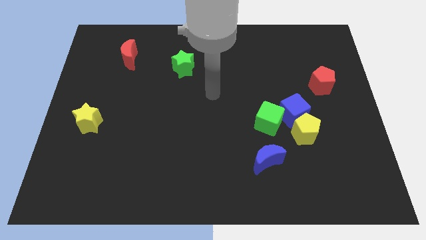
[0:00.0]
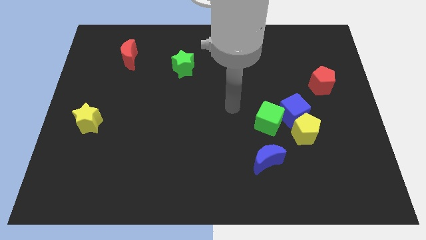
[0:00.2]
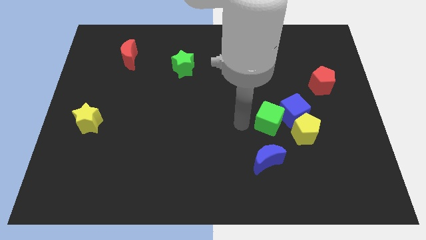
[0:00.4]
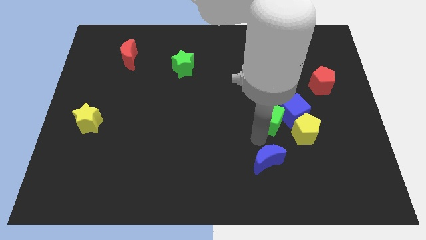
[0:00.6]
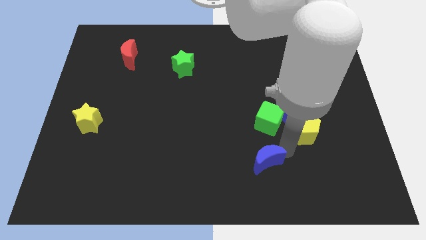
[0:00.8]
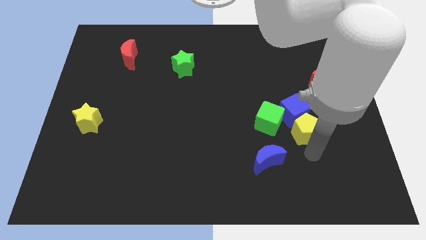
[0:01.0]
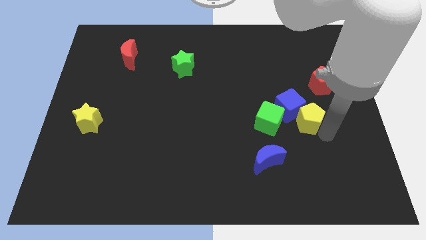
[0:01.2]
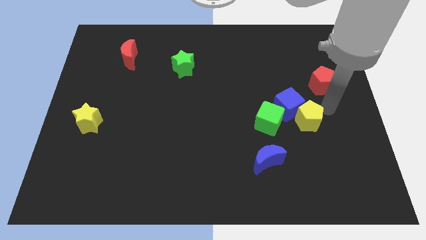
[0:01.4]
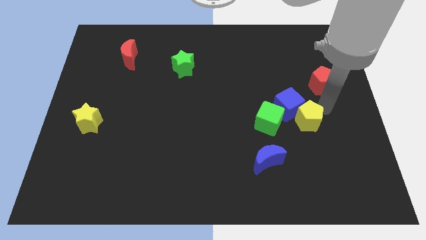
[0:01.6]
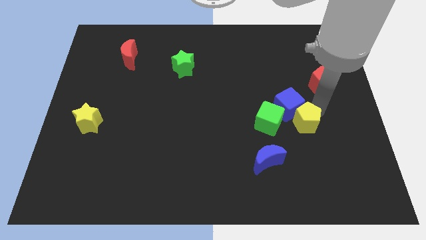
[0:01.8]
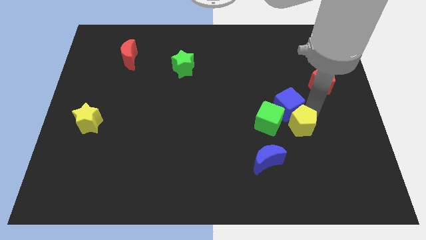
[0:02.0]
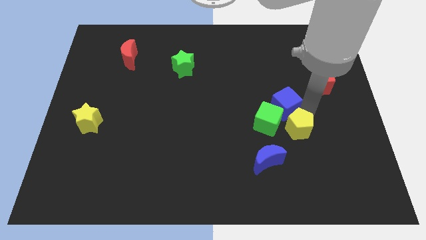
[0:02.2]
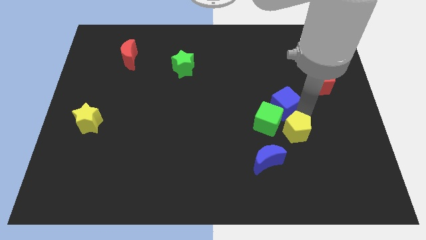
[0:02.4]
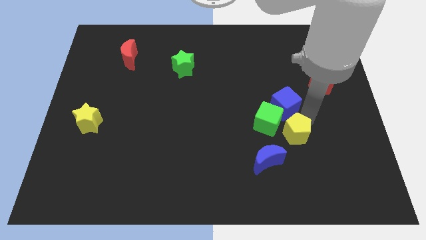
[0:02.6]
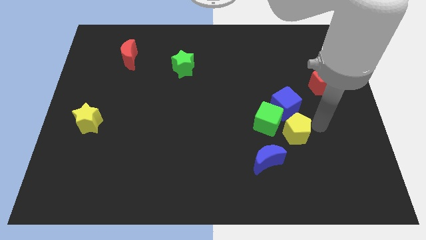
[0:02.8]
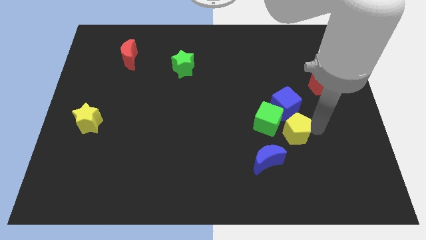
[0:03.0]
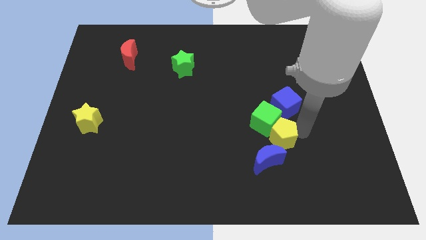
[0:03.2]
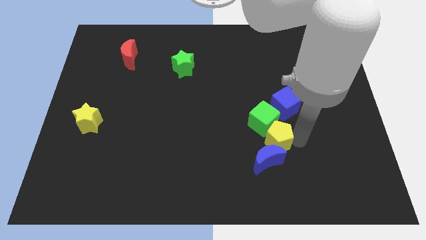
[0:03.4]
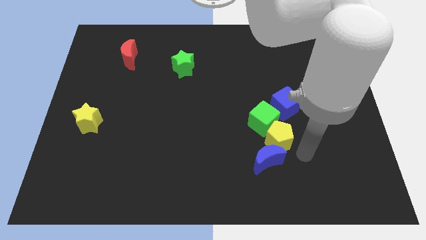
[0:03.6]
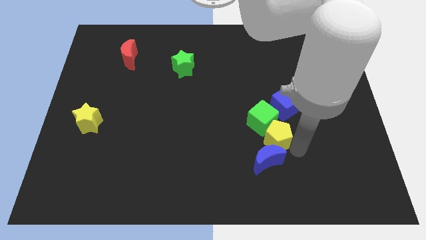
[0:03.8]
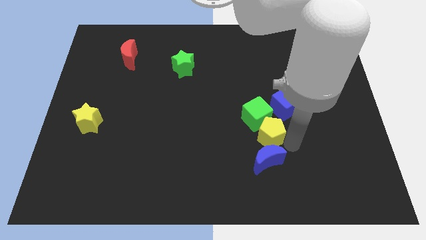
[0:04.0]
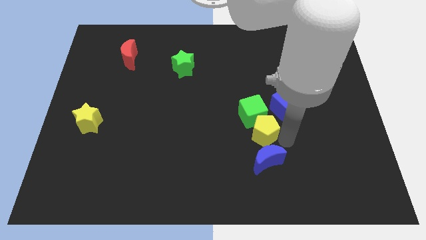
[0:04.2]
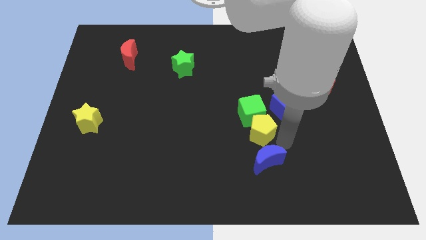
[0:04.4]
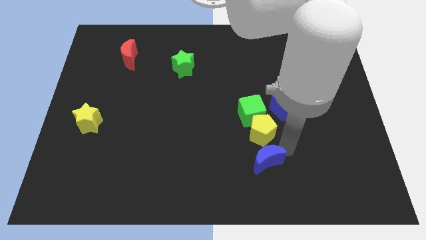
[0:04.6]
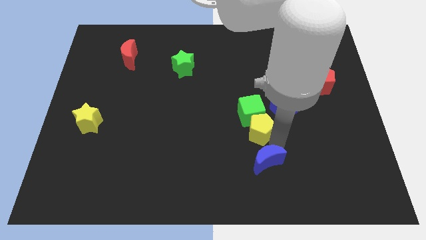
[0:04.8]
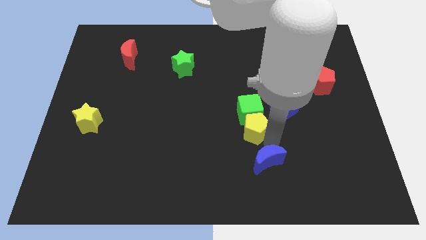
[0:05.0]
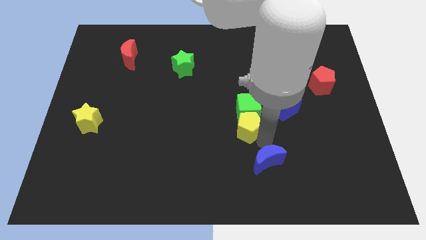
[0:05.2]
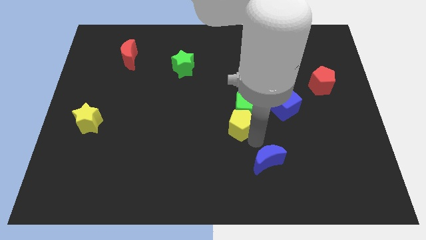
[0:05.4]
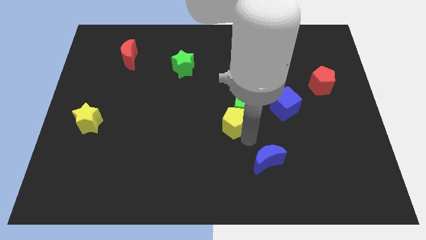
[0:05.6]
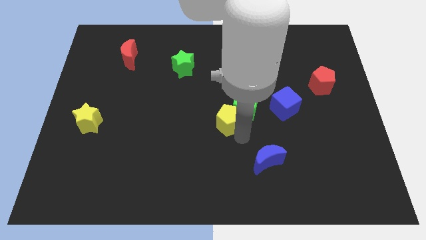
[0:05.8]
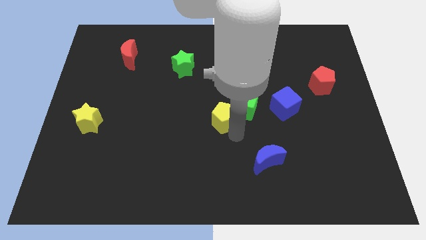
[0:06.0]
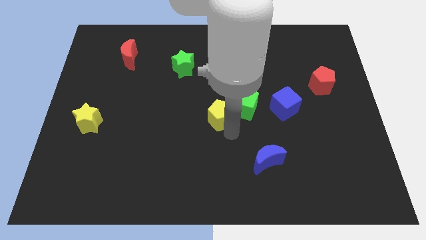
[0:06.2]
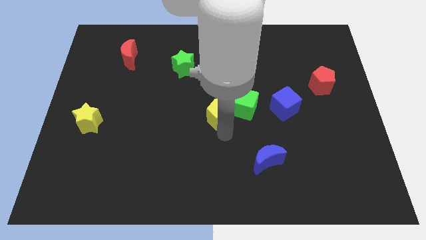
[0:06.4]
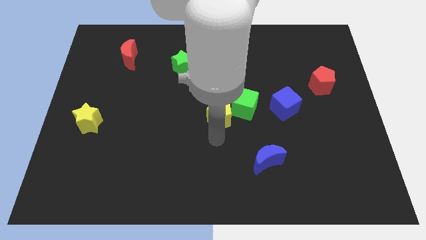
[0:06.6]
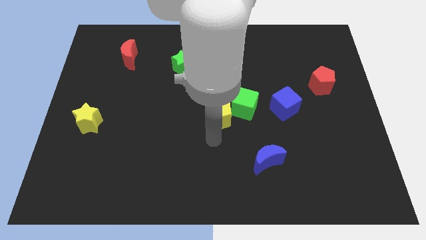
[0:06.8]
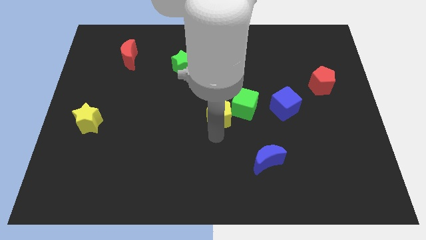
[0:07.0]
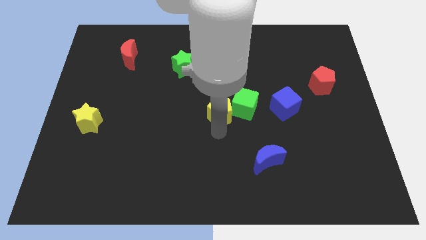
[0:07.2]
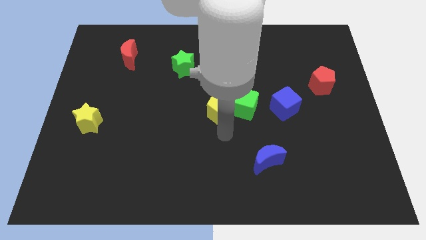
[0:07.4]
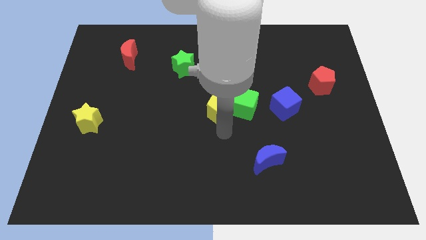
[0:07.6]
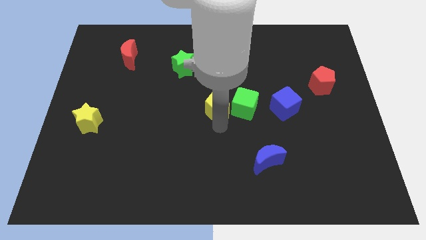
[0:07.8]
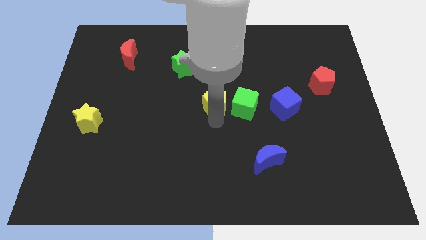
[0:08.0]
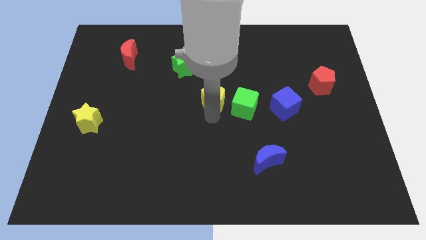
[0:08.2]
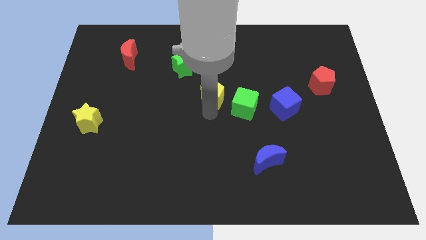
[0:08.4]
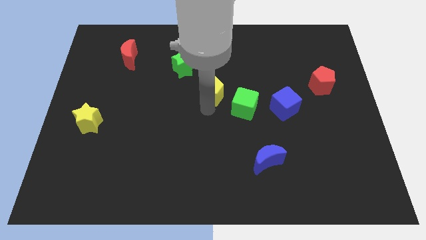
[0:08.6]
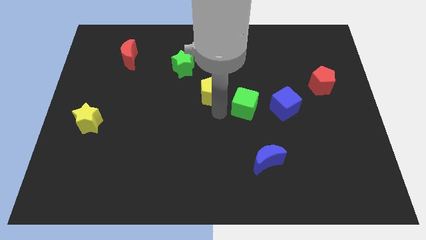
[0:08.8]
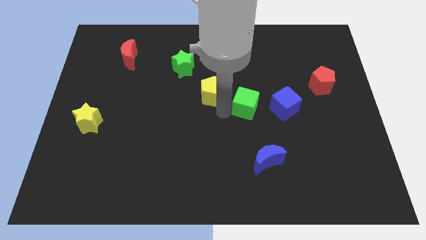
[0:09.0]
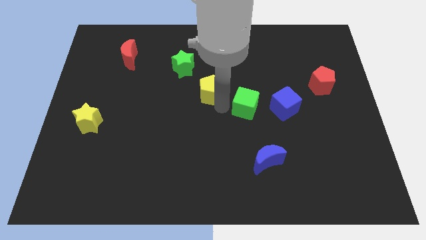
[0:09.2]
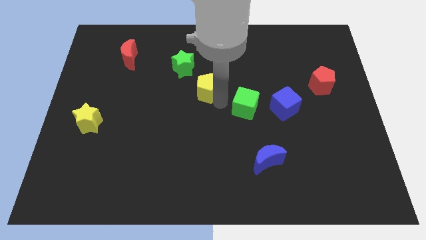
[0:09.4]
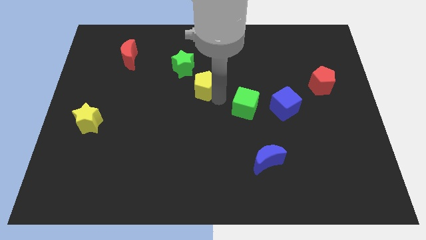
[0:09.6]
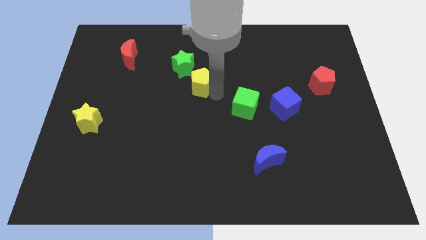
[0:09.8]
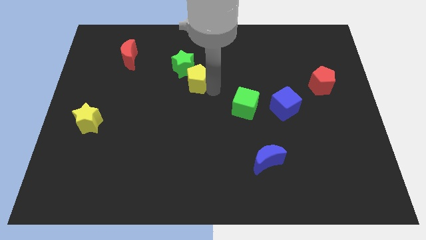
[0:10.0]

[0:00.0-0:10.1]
move the yellow pentagon next to the green star

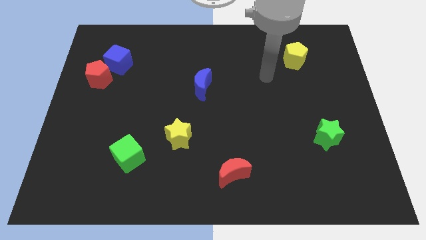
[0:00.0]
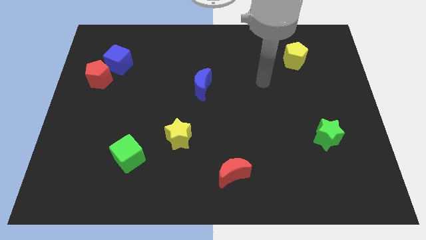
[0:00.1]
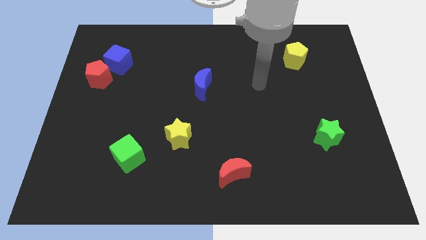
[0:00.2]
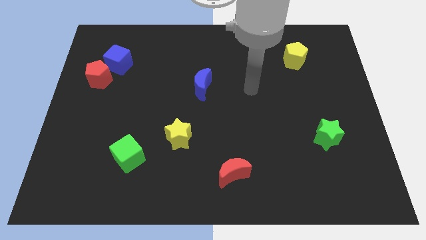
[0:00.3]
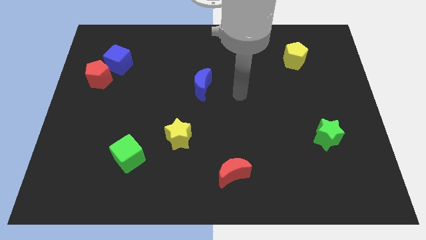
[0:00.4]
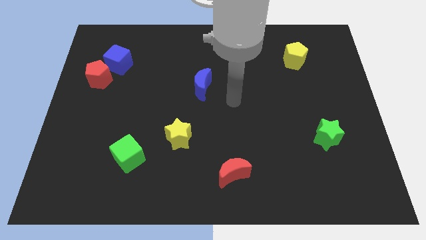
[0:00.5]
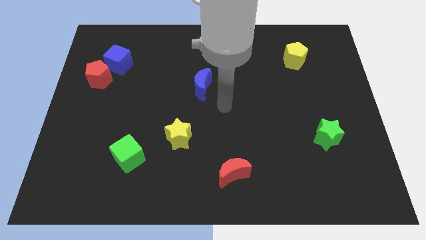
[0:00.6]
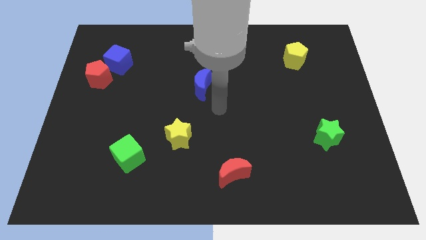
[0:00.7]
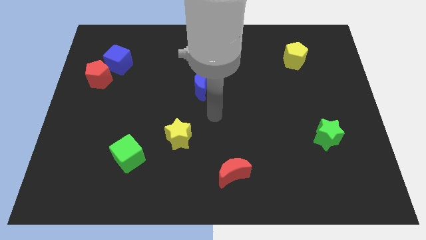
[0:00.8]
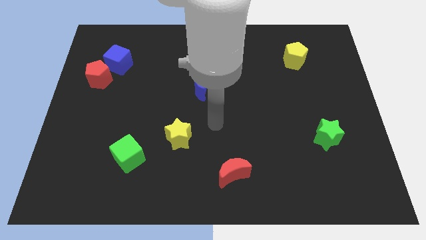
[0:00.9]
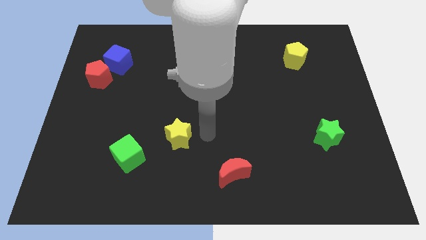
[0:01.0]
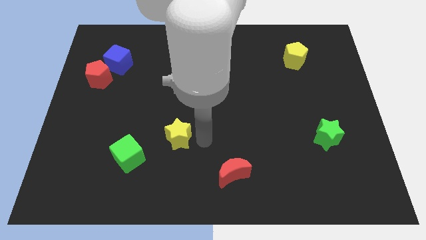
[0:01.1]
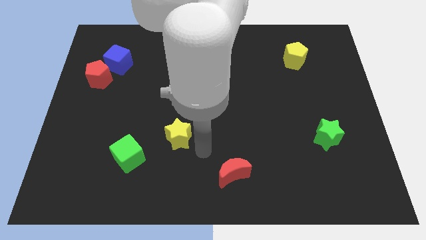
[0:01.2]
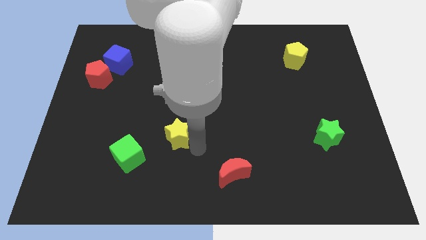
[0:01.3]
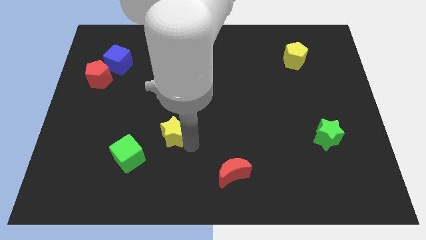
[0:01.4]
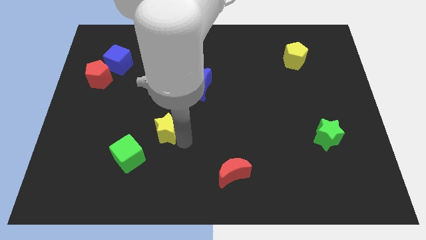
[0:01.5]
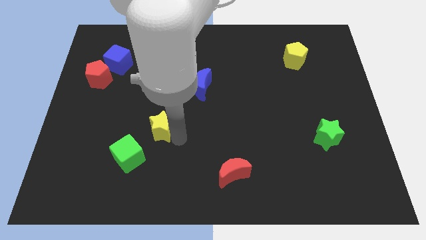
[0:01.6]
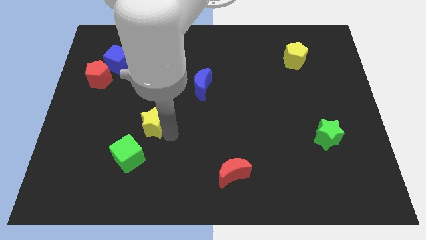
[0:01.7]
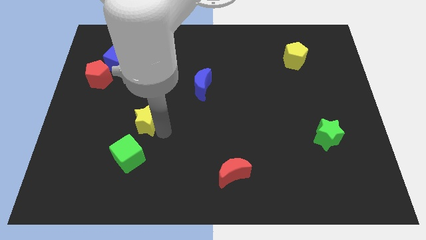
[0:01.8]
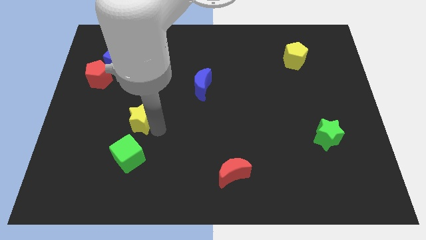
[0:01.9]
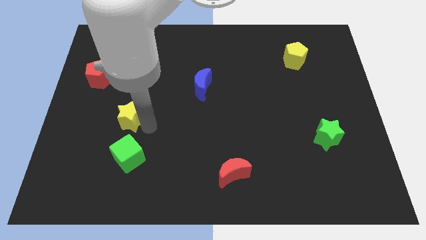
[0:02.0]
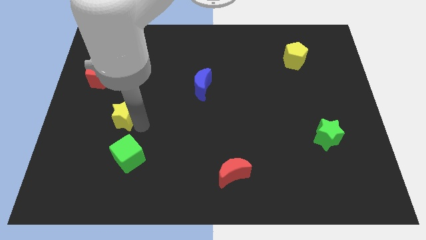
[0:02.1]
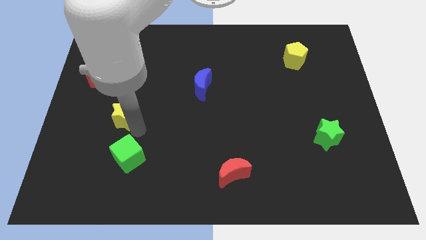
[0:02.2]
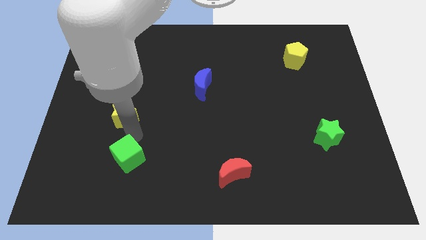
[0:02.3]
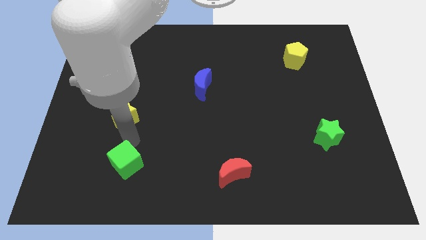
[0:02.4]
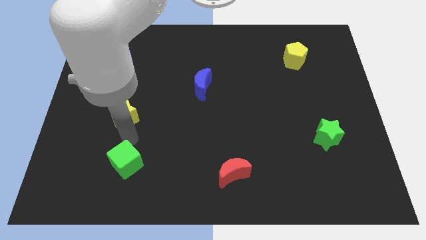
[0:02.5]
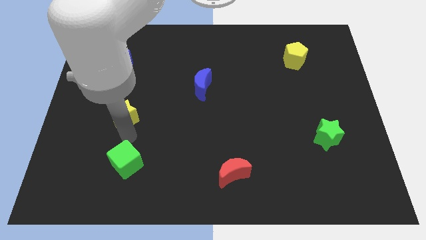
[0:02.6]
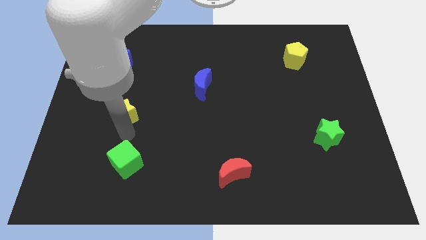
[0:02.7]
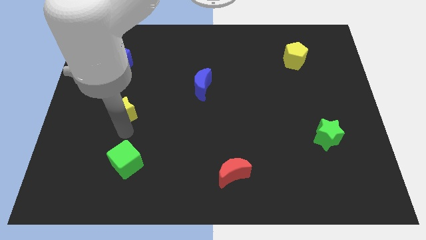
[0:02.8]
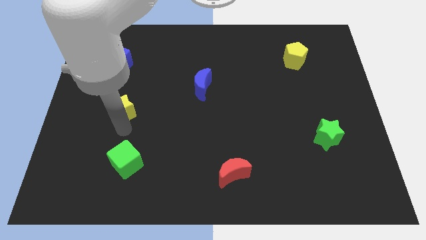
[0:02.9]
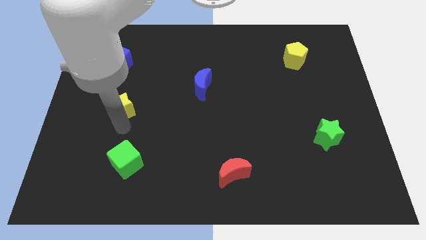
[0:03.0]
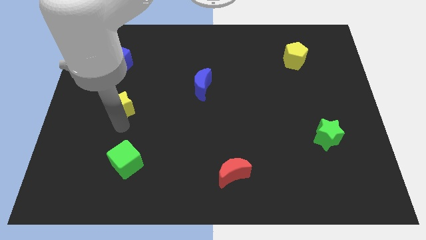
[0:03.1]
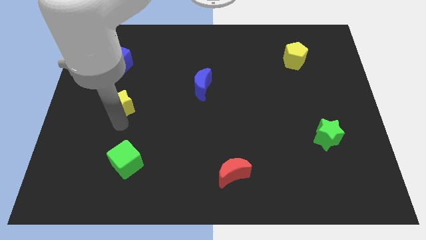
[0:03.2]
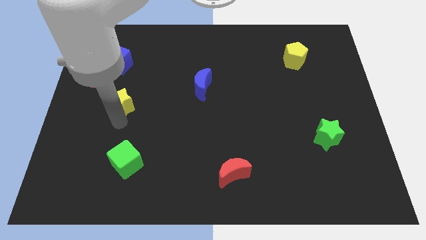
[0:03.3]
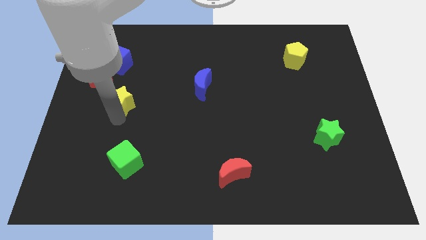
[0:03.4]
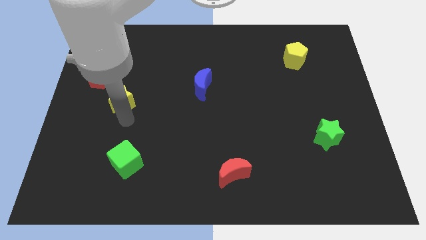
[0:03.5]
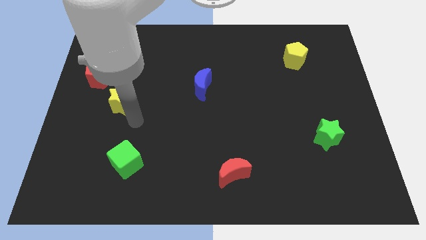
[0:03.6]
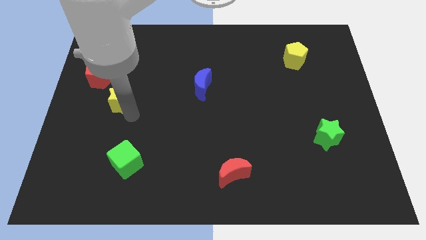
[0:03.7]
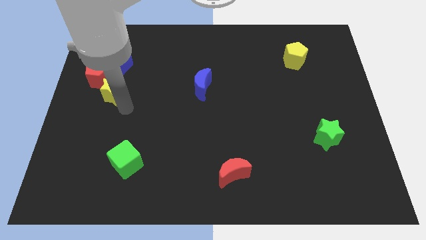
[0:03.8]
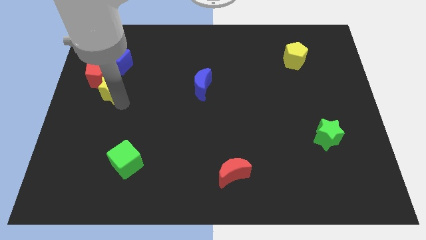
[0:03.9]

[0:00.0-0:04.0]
slide the yellow star towards the red pentagon
